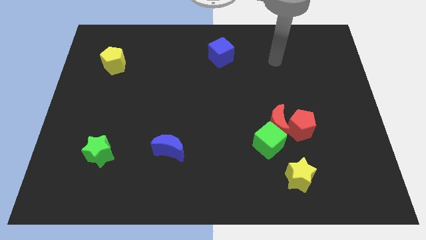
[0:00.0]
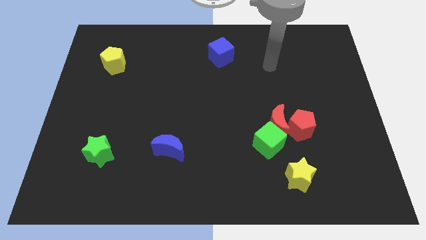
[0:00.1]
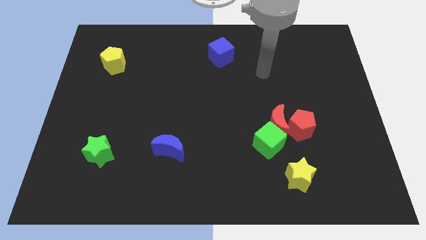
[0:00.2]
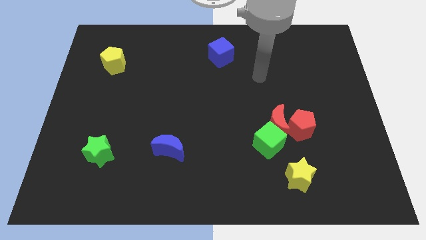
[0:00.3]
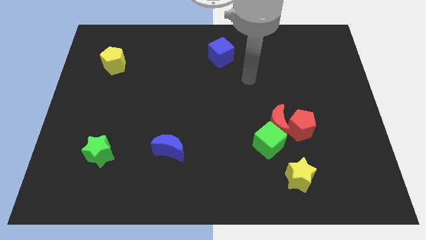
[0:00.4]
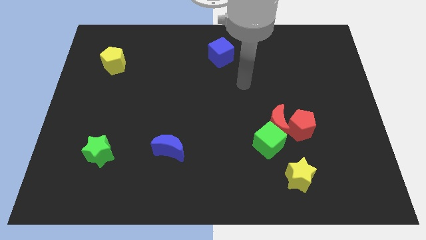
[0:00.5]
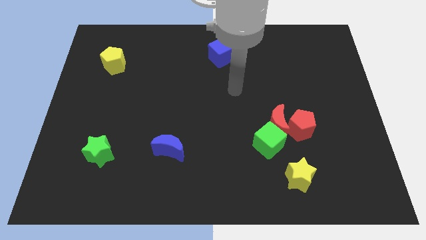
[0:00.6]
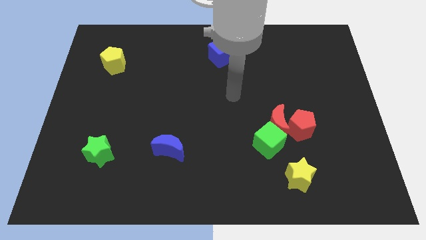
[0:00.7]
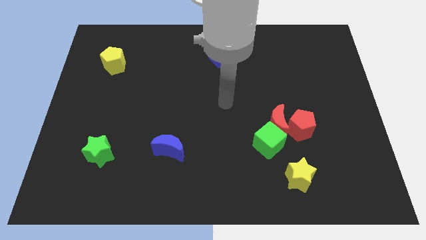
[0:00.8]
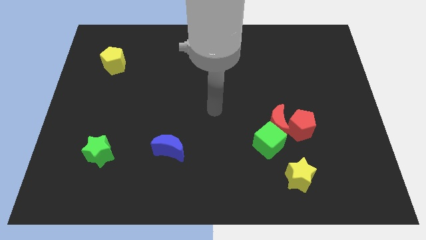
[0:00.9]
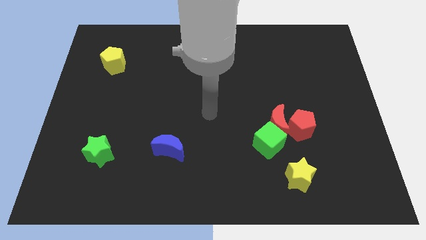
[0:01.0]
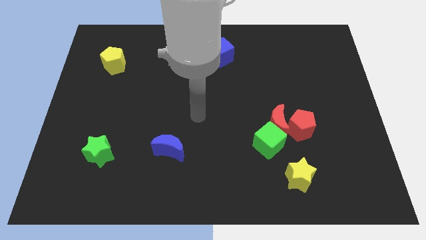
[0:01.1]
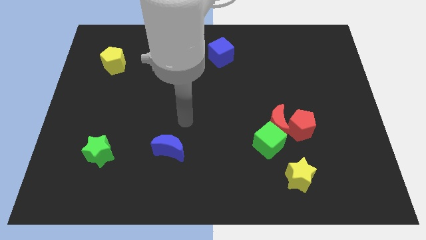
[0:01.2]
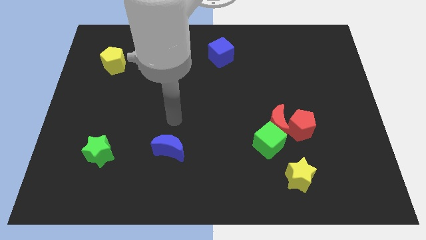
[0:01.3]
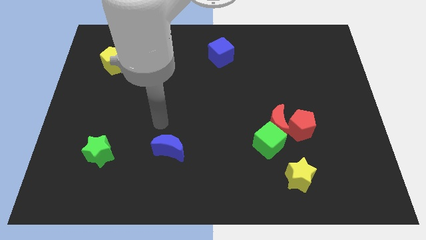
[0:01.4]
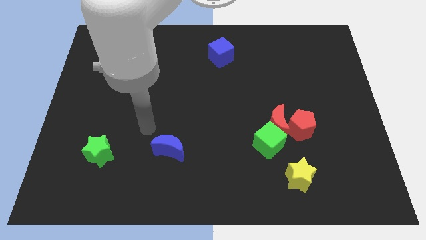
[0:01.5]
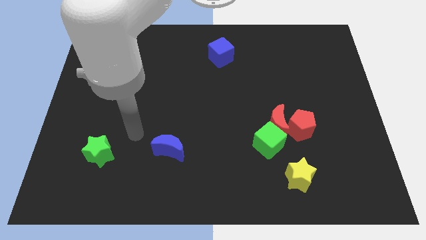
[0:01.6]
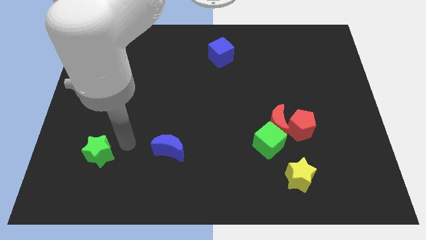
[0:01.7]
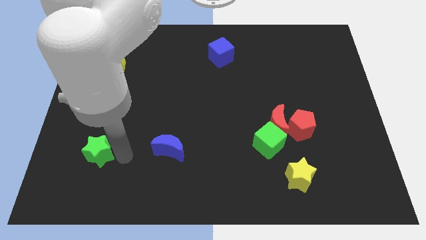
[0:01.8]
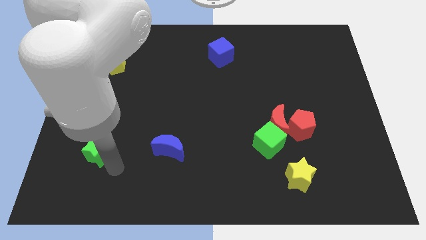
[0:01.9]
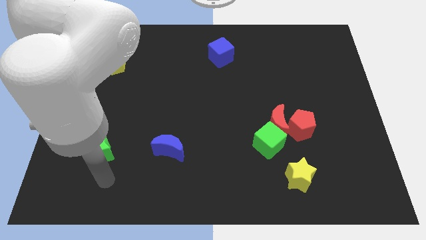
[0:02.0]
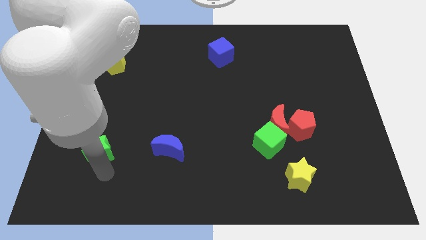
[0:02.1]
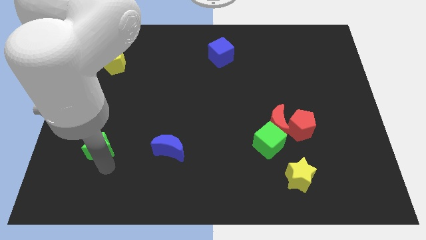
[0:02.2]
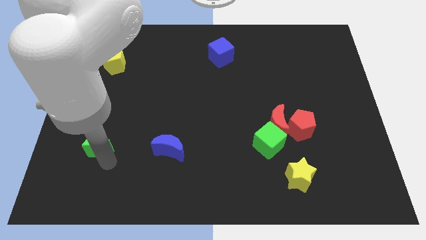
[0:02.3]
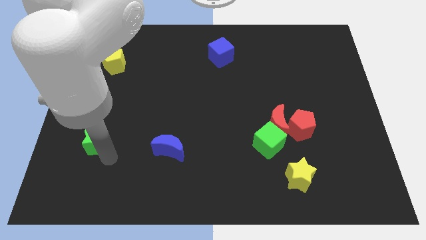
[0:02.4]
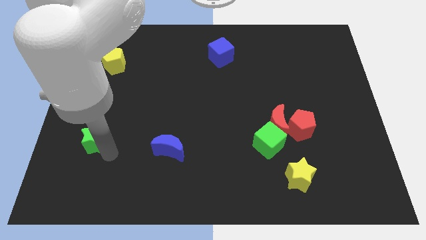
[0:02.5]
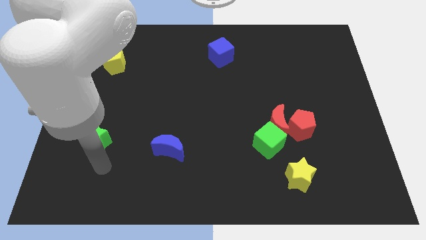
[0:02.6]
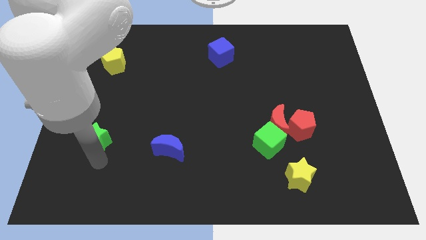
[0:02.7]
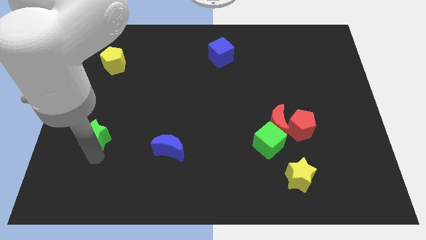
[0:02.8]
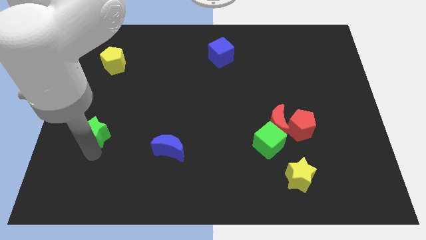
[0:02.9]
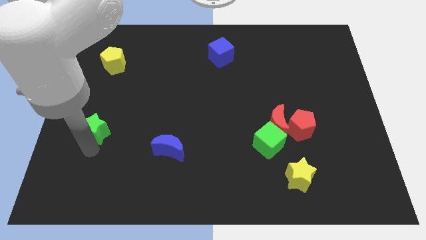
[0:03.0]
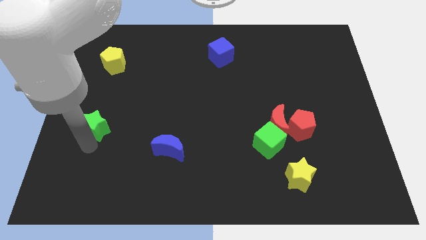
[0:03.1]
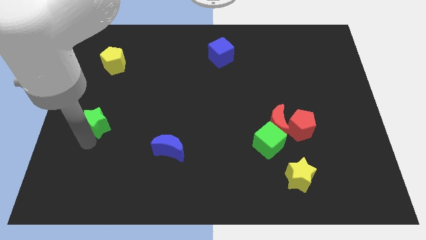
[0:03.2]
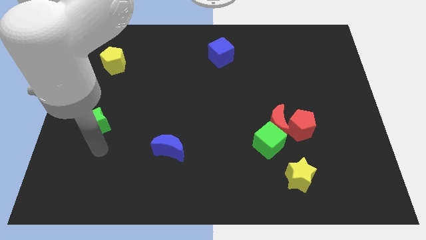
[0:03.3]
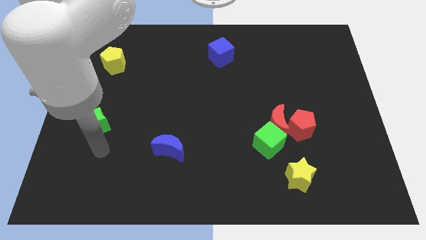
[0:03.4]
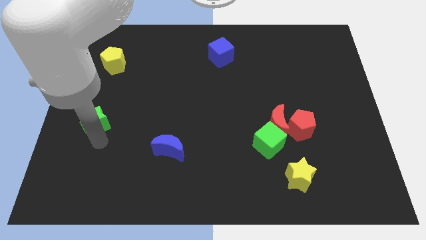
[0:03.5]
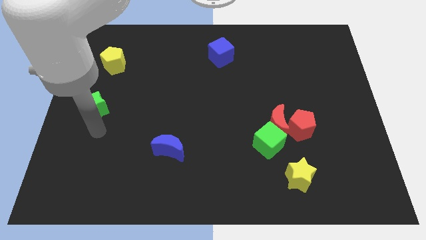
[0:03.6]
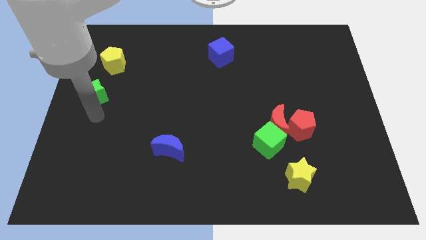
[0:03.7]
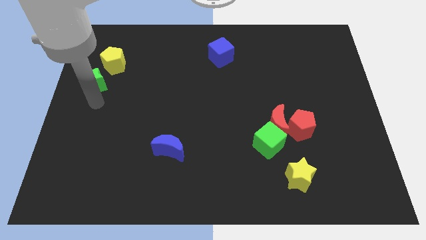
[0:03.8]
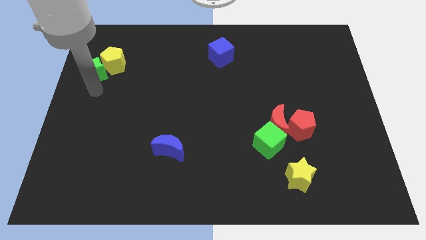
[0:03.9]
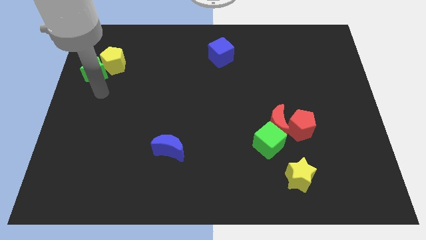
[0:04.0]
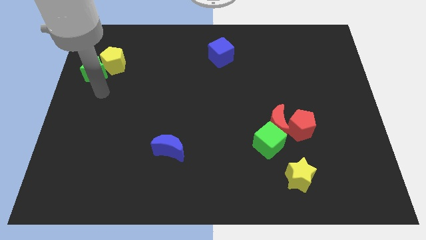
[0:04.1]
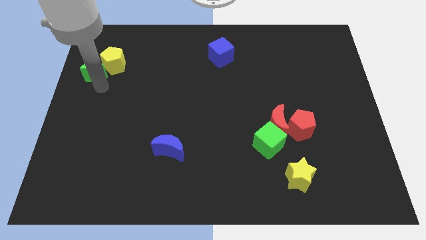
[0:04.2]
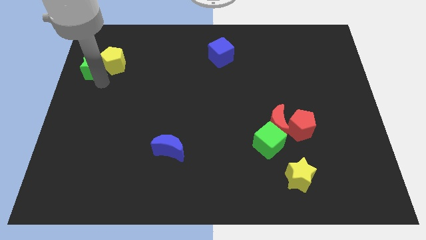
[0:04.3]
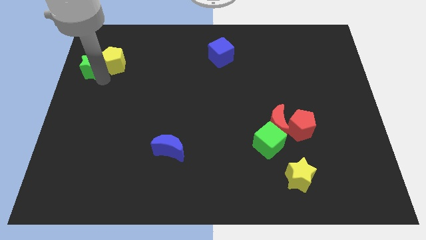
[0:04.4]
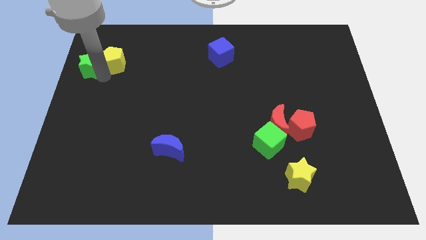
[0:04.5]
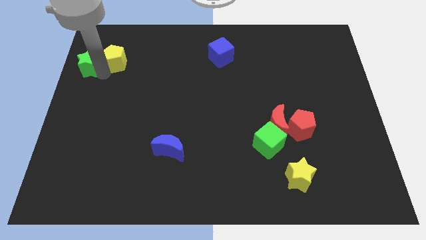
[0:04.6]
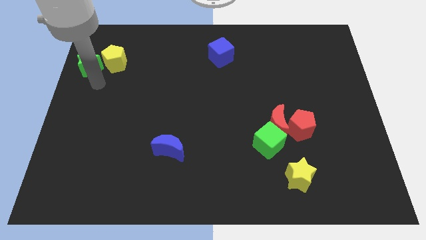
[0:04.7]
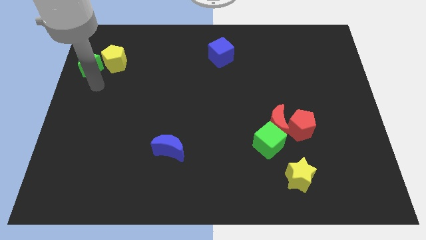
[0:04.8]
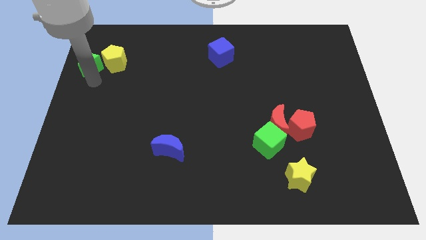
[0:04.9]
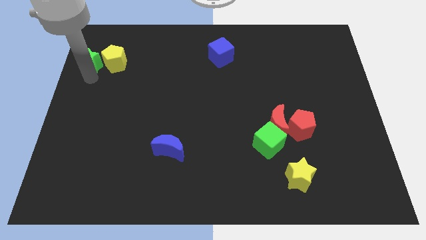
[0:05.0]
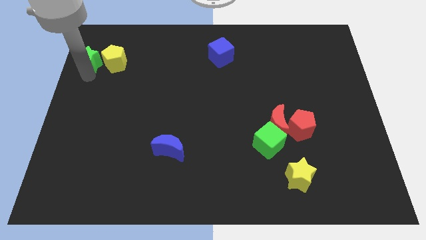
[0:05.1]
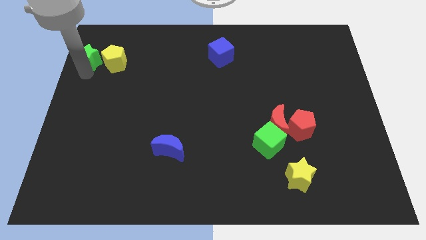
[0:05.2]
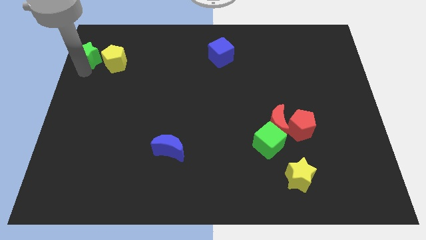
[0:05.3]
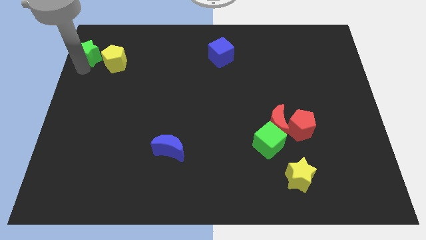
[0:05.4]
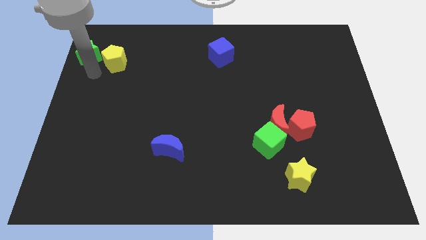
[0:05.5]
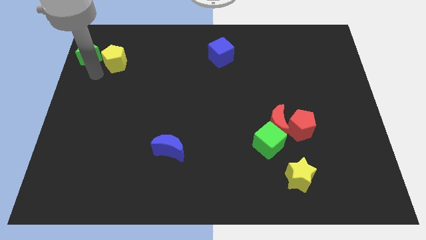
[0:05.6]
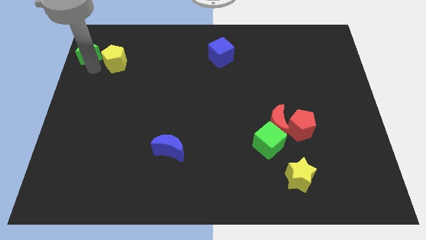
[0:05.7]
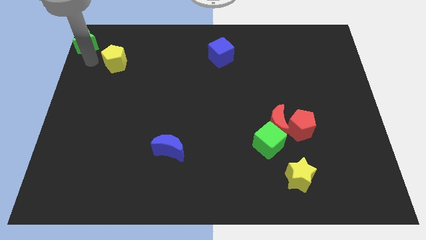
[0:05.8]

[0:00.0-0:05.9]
put the green star to the top left of the board

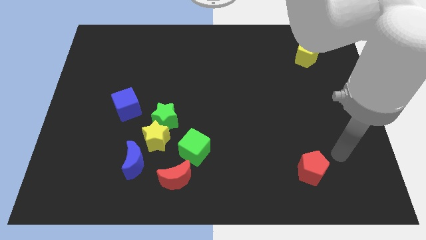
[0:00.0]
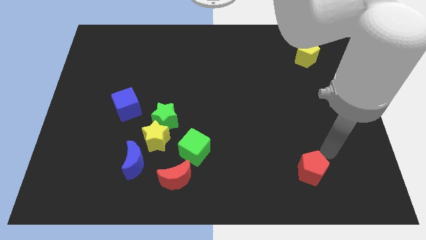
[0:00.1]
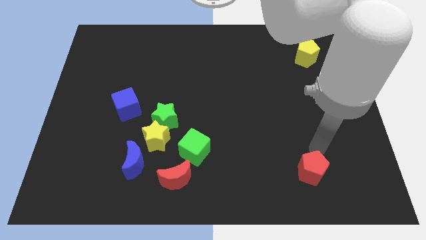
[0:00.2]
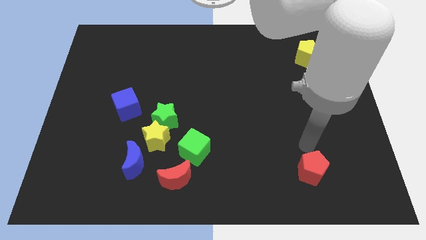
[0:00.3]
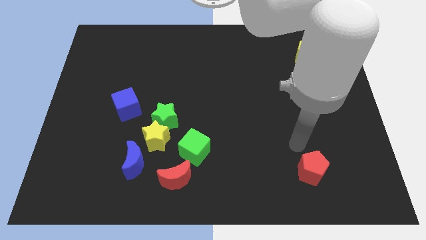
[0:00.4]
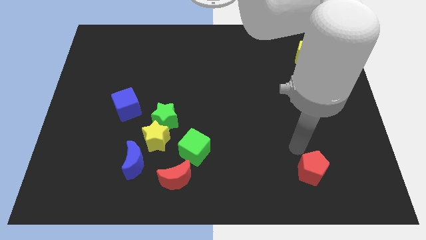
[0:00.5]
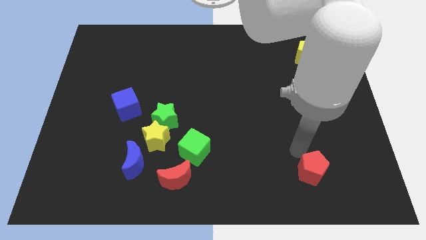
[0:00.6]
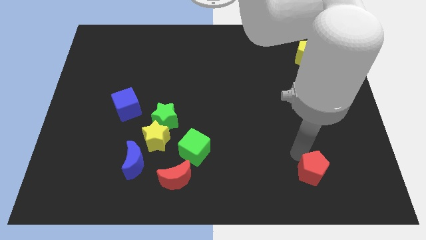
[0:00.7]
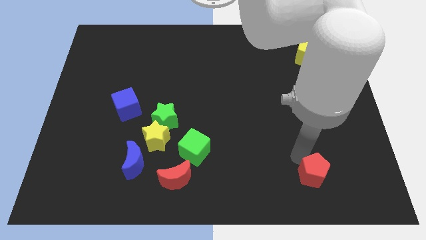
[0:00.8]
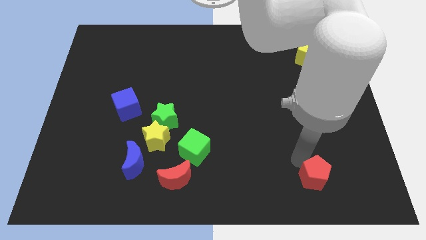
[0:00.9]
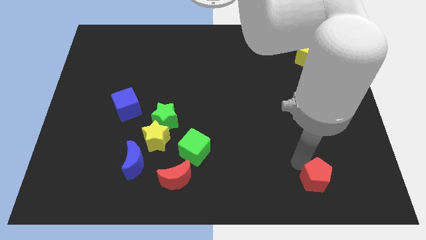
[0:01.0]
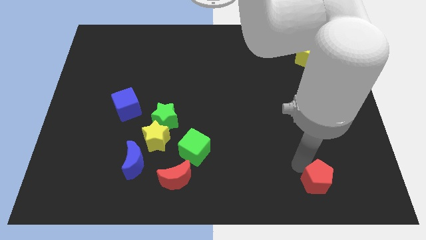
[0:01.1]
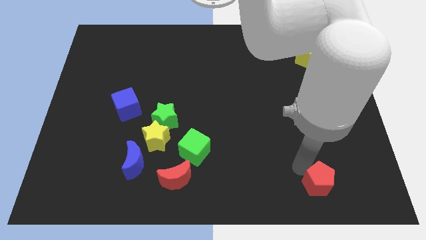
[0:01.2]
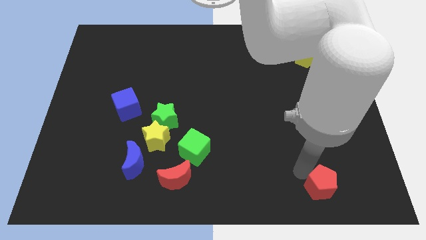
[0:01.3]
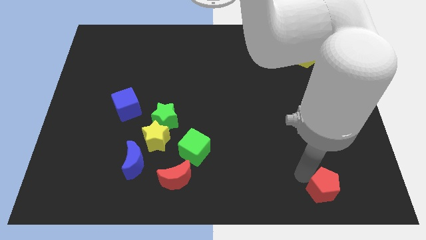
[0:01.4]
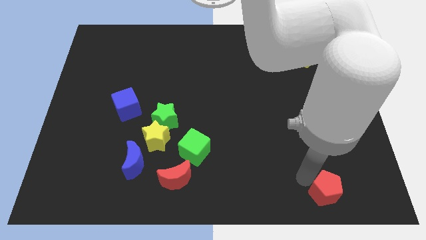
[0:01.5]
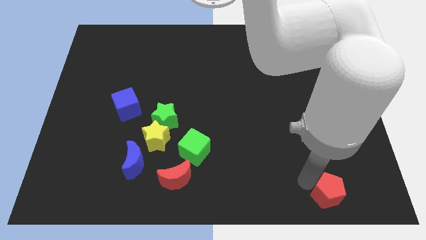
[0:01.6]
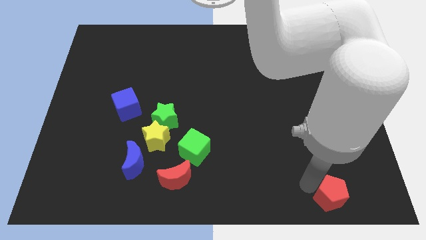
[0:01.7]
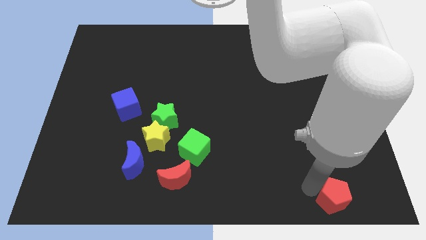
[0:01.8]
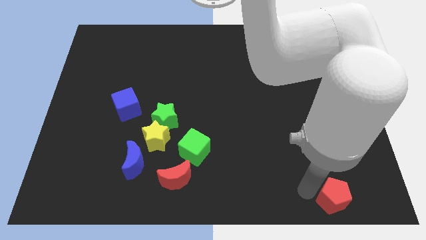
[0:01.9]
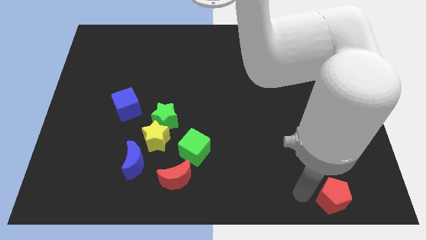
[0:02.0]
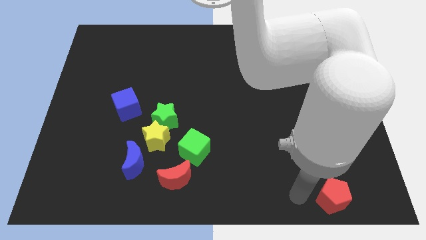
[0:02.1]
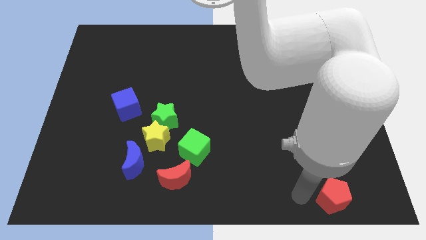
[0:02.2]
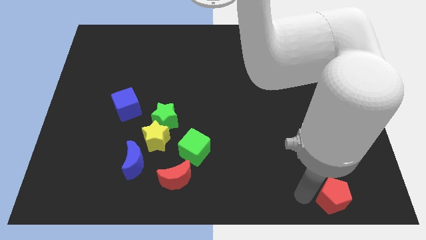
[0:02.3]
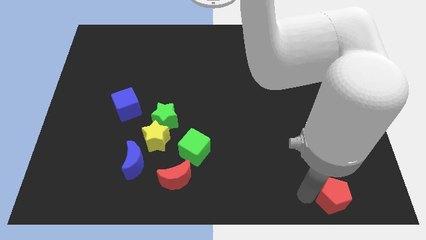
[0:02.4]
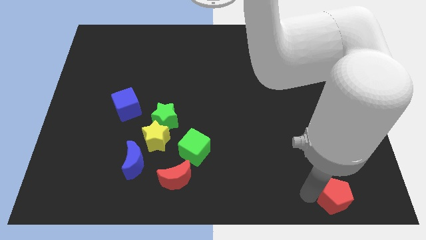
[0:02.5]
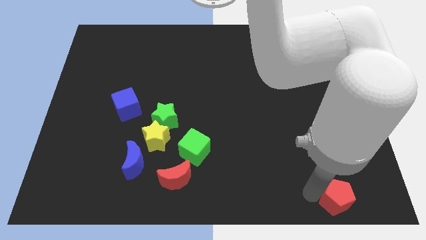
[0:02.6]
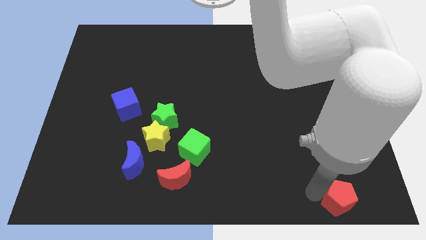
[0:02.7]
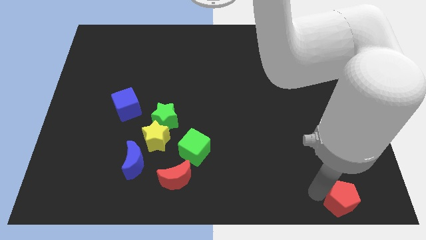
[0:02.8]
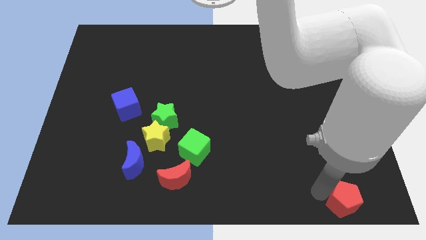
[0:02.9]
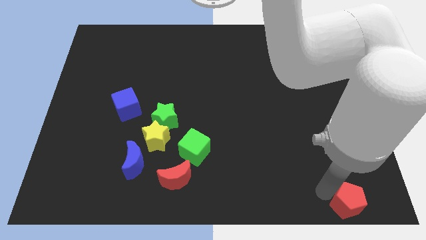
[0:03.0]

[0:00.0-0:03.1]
put the red pentagon to the bottom right of the board
